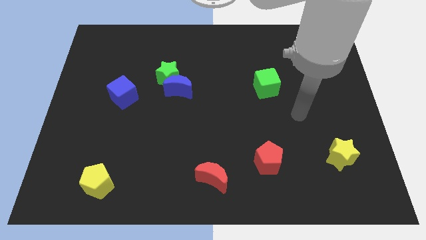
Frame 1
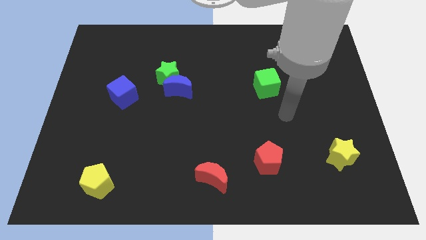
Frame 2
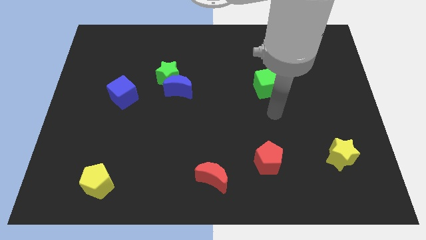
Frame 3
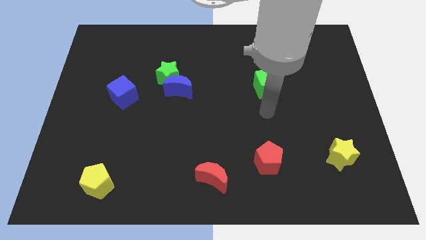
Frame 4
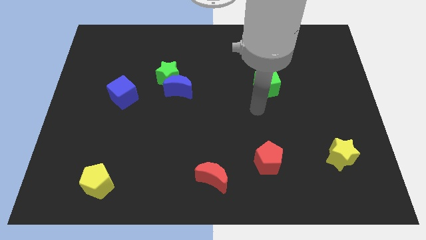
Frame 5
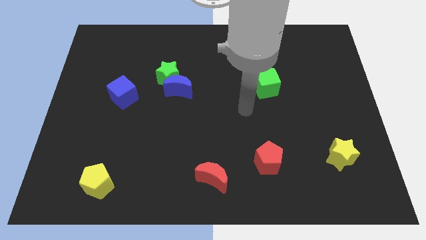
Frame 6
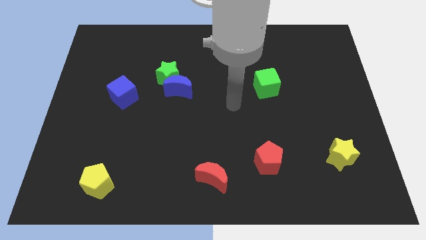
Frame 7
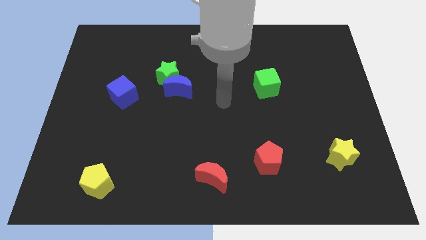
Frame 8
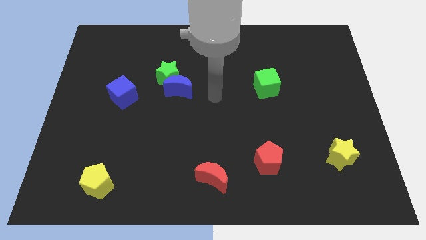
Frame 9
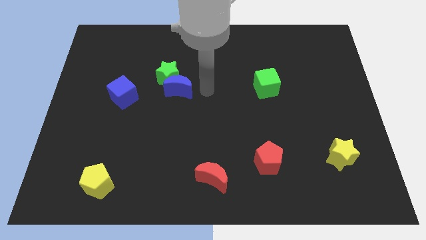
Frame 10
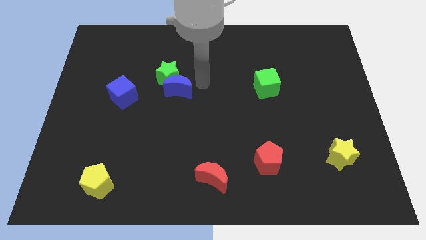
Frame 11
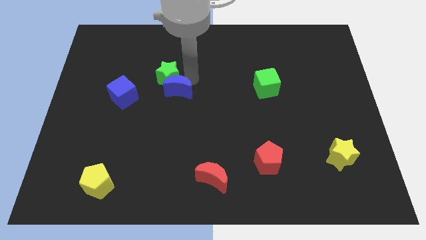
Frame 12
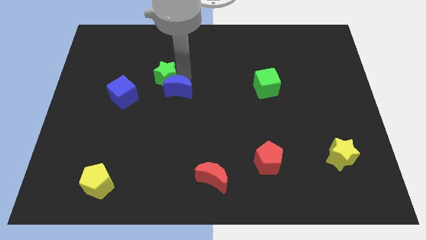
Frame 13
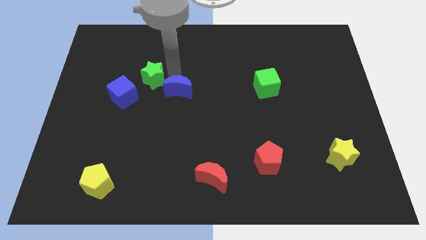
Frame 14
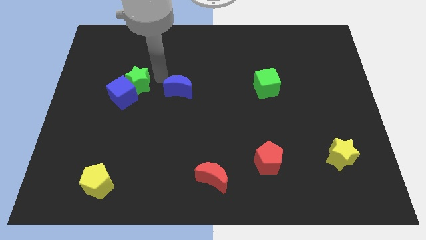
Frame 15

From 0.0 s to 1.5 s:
pull the blue moon apart from the green star

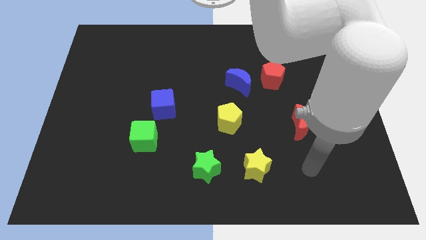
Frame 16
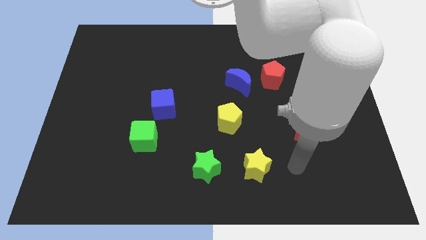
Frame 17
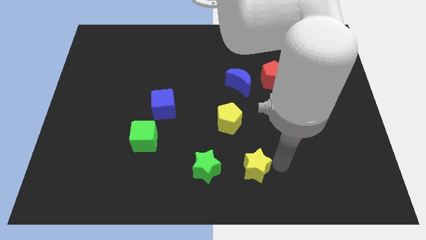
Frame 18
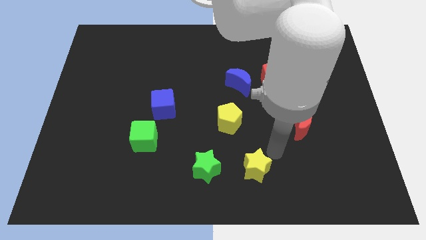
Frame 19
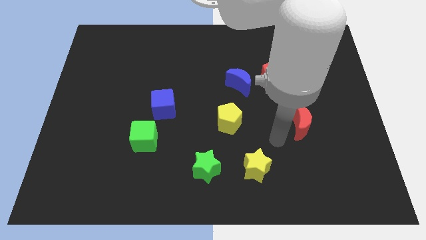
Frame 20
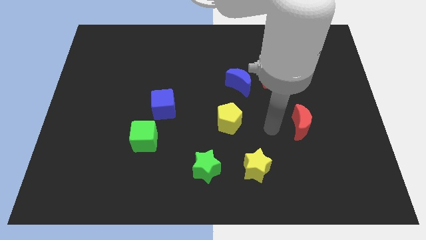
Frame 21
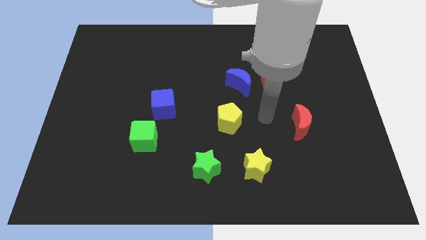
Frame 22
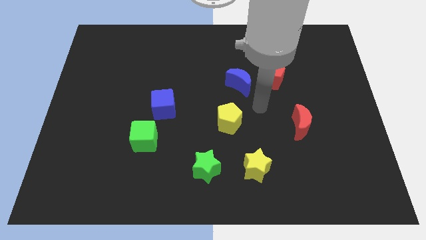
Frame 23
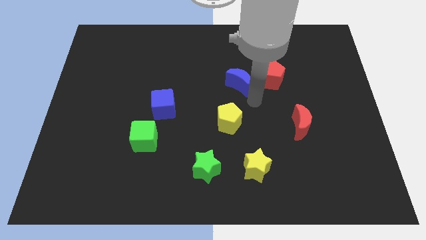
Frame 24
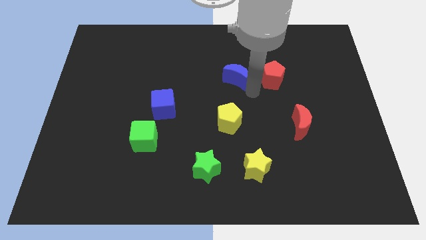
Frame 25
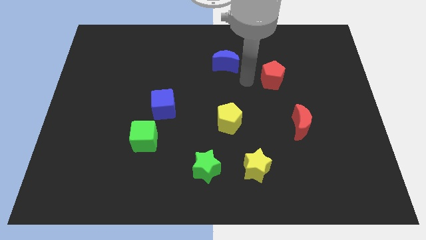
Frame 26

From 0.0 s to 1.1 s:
pull the red pentagon apart from the blue moon

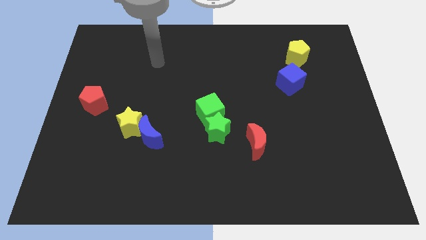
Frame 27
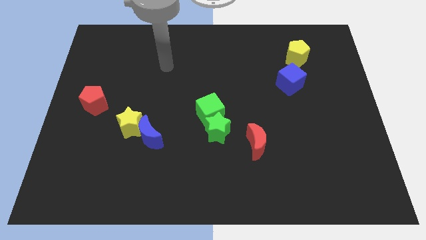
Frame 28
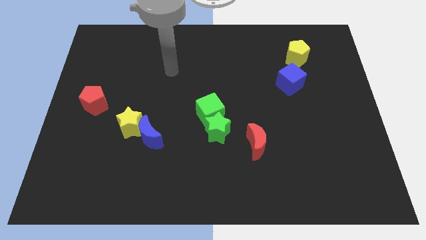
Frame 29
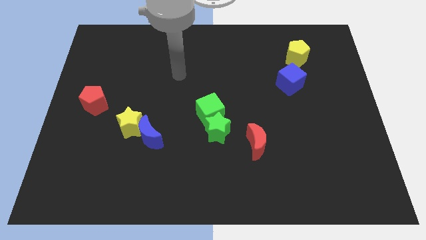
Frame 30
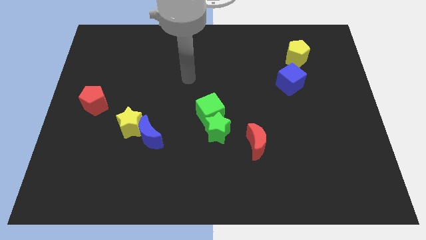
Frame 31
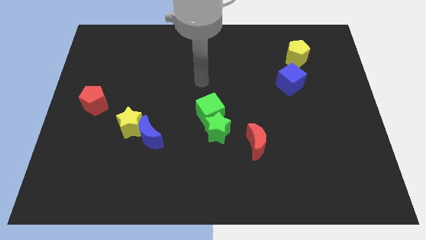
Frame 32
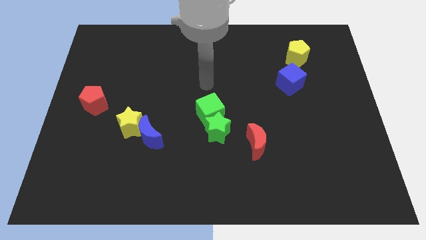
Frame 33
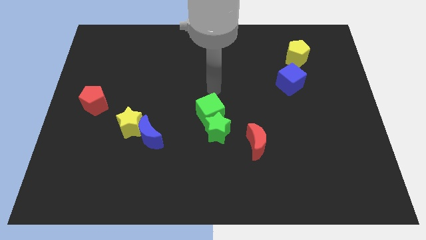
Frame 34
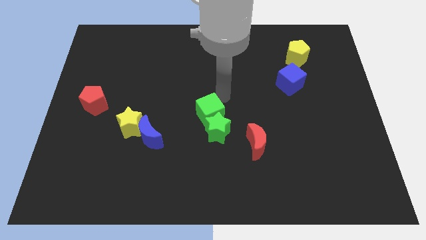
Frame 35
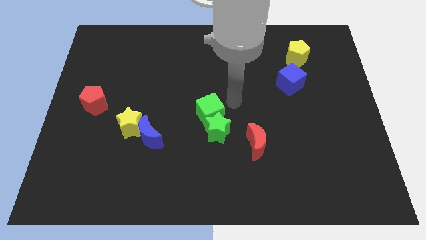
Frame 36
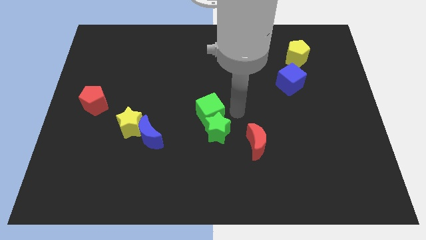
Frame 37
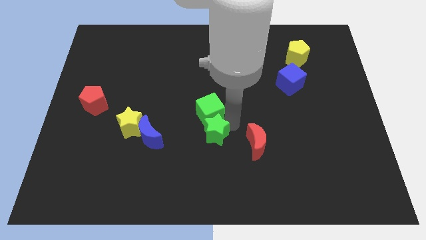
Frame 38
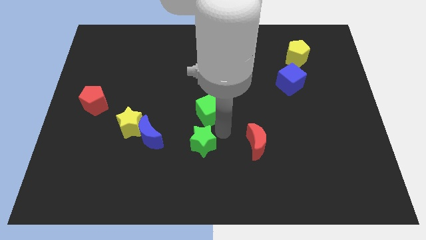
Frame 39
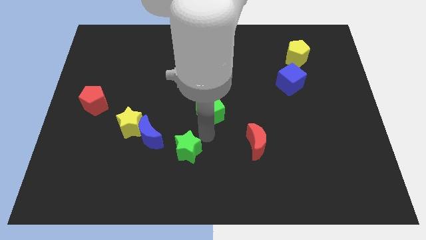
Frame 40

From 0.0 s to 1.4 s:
move the green cube away from the green star

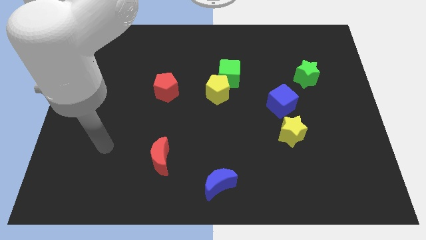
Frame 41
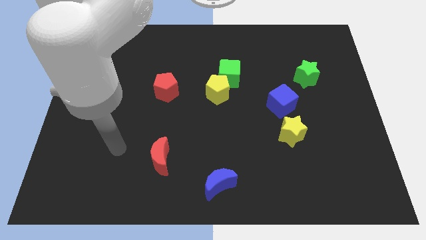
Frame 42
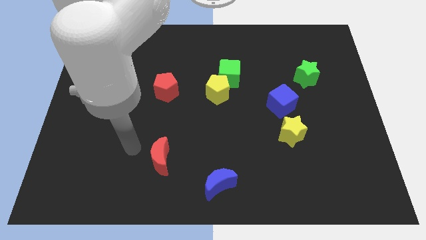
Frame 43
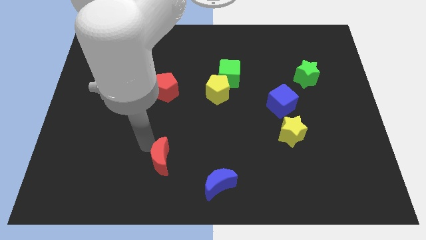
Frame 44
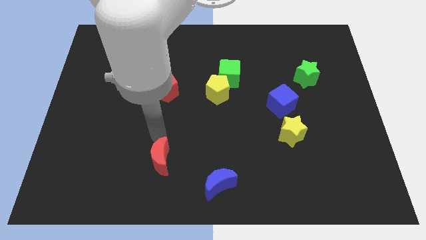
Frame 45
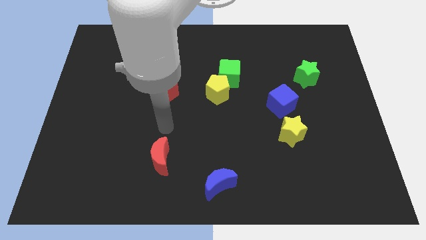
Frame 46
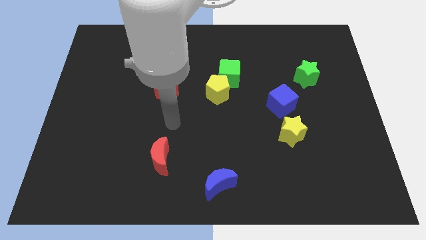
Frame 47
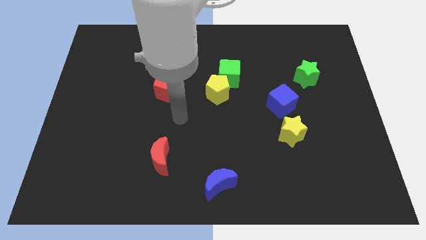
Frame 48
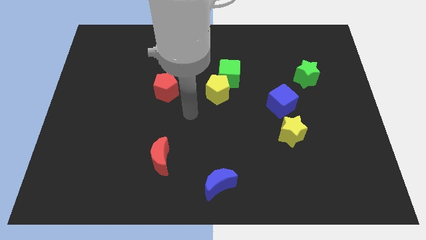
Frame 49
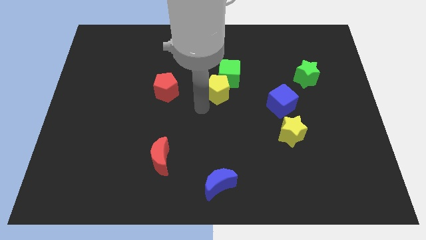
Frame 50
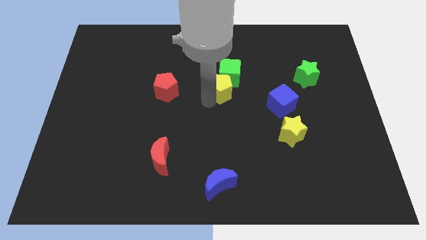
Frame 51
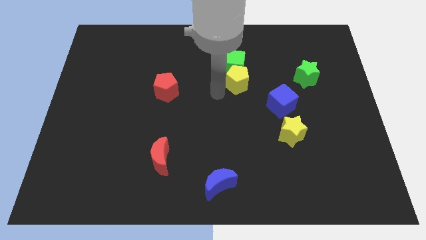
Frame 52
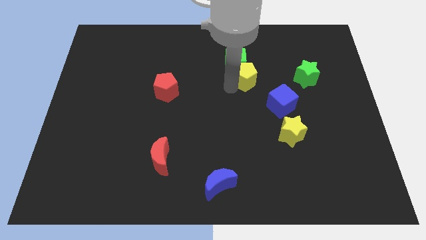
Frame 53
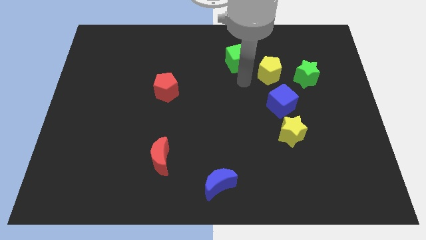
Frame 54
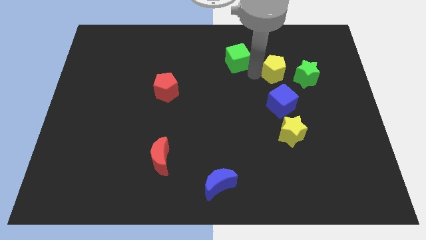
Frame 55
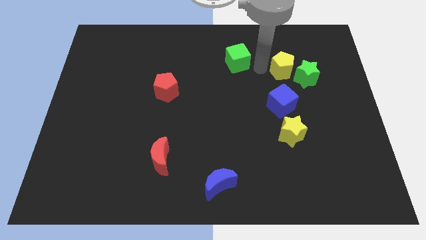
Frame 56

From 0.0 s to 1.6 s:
move the green cube away from the yellow pentagon

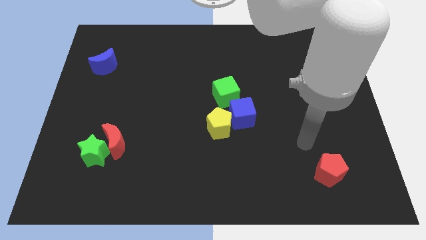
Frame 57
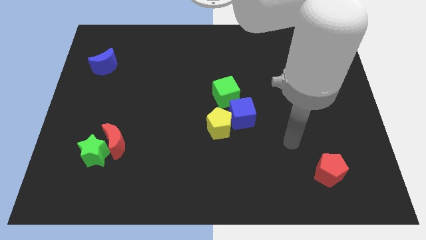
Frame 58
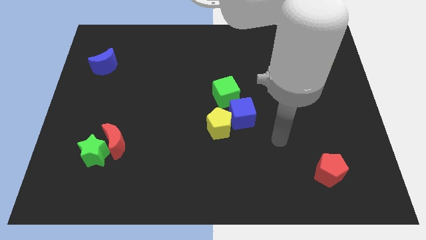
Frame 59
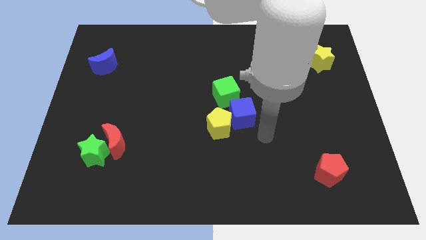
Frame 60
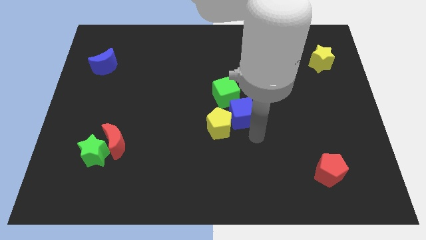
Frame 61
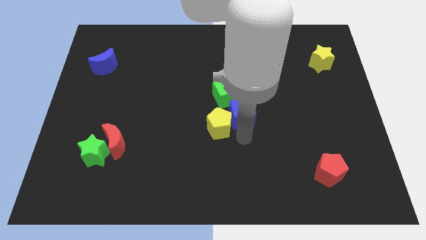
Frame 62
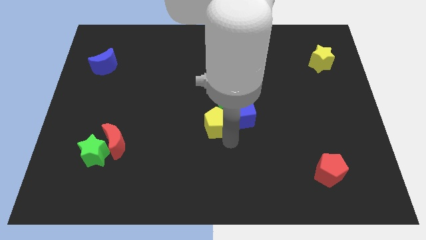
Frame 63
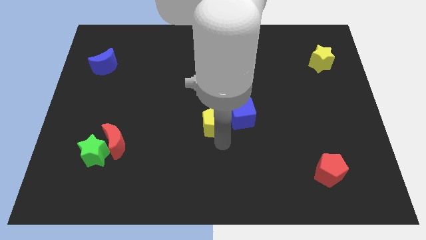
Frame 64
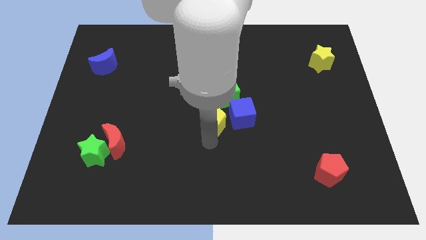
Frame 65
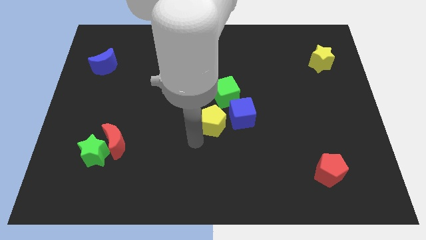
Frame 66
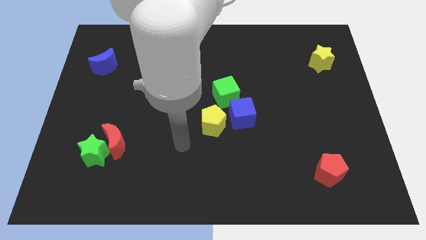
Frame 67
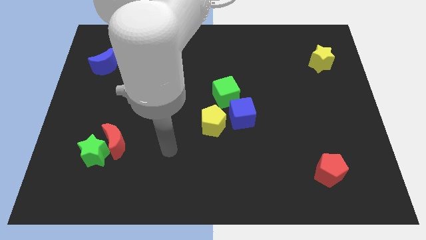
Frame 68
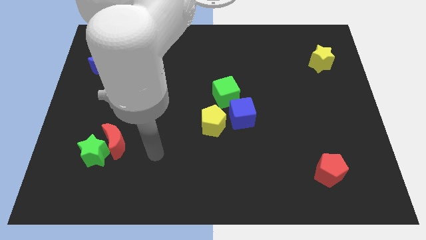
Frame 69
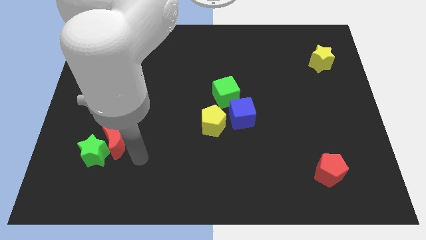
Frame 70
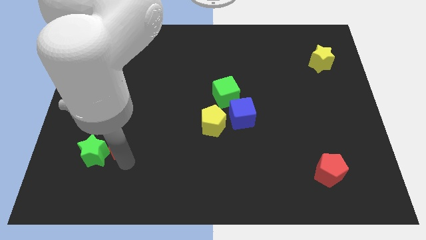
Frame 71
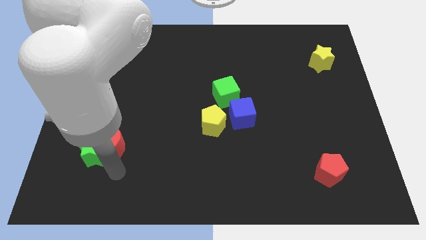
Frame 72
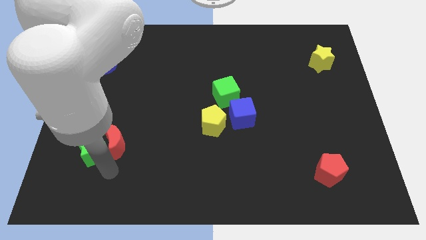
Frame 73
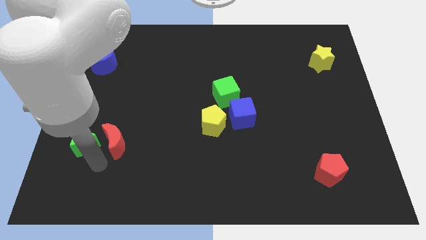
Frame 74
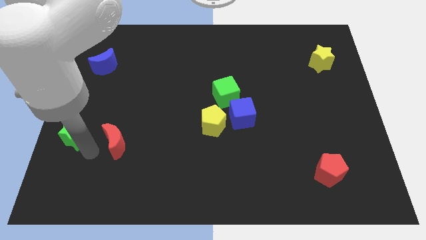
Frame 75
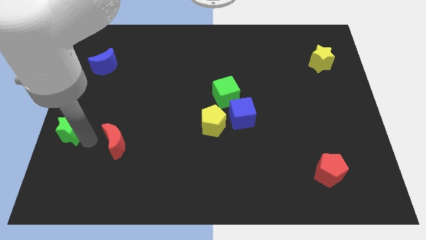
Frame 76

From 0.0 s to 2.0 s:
move the red moon away from the green star

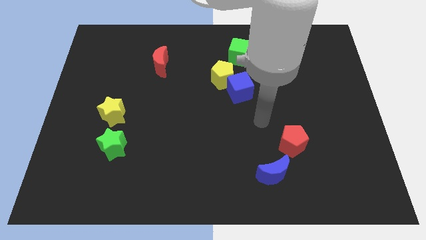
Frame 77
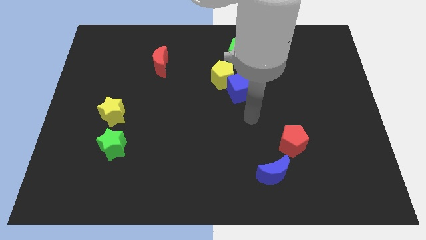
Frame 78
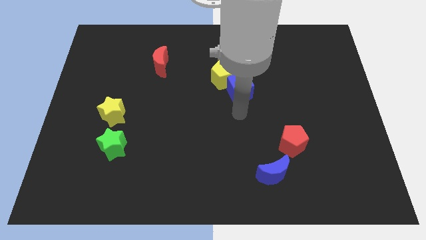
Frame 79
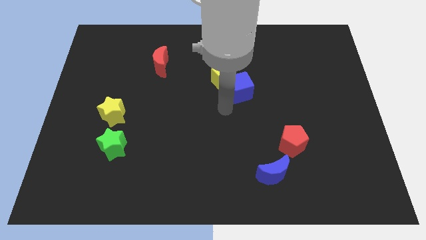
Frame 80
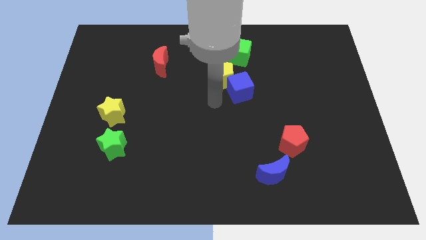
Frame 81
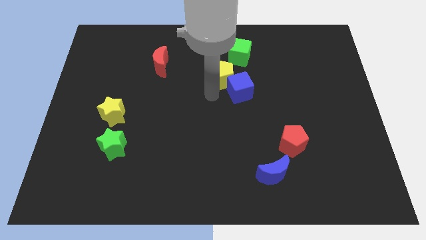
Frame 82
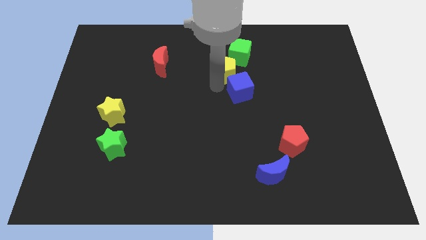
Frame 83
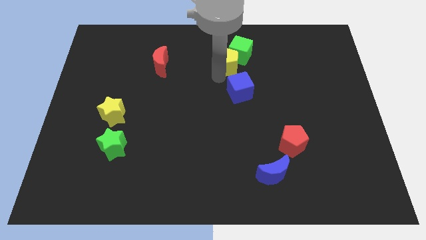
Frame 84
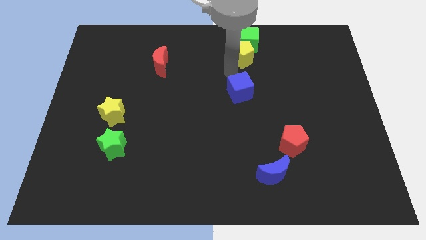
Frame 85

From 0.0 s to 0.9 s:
pull the blue cube apart from the yellow pentagon

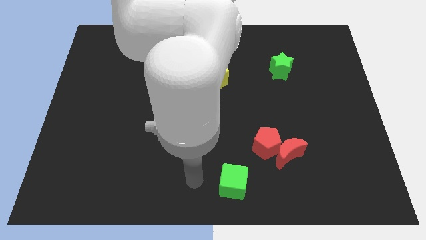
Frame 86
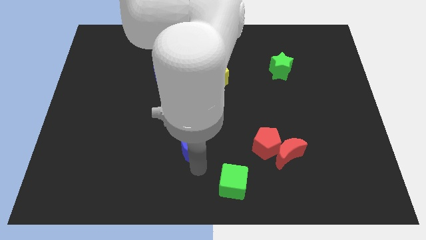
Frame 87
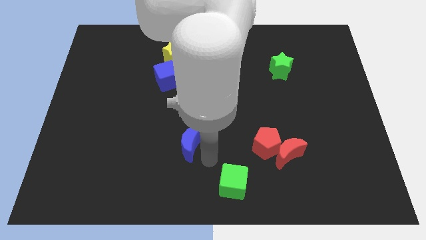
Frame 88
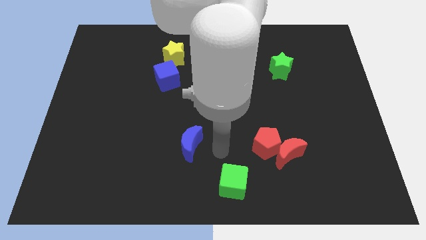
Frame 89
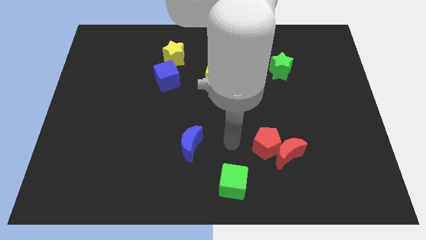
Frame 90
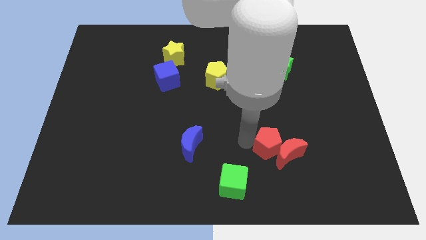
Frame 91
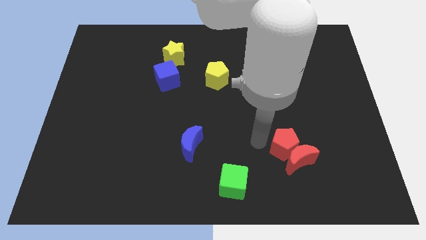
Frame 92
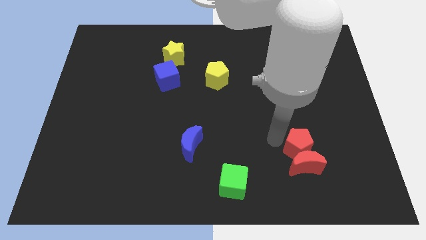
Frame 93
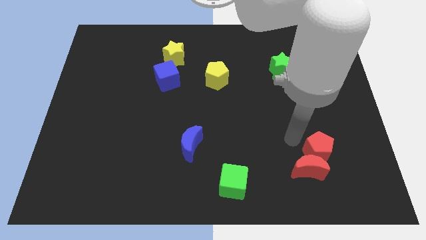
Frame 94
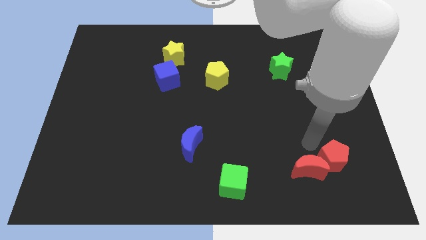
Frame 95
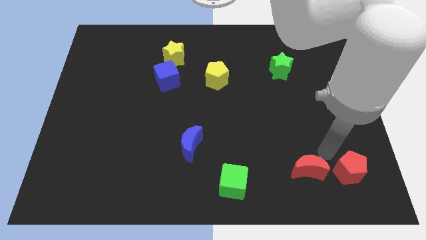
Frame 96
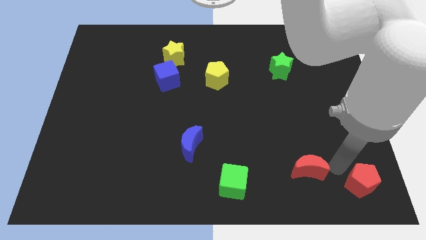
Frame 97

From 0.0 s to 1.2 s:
move the red moon away from the red pentagon
